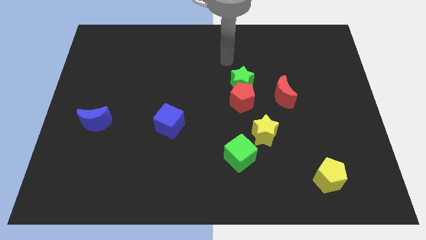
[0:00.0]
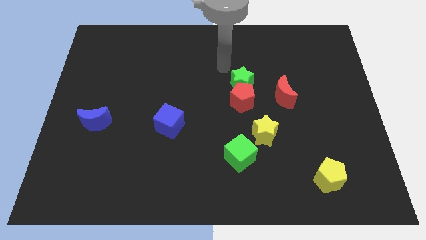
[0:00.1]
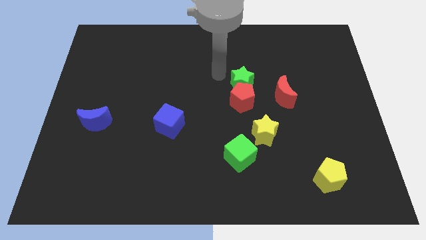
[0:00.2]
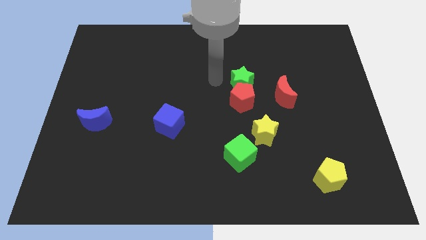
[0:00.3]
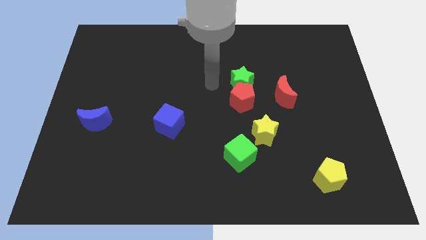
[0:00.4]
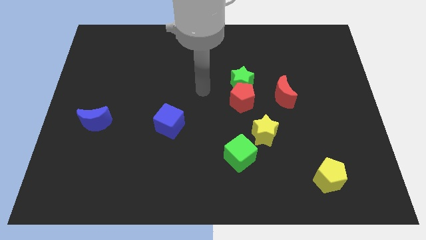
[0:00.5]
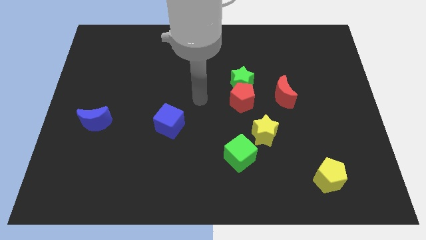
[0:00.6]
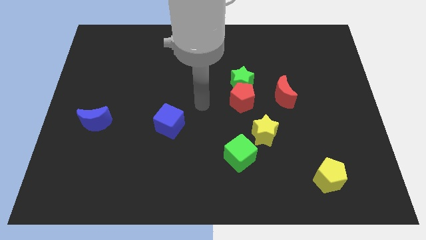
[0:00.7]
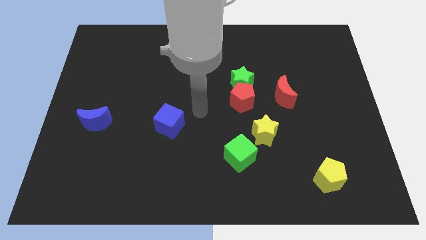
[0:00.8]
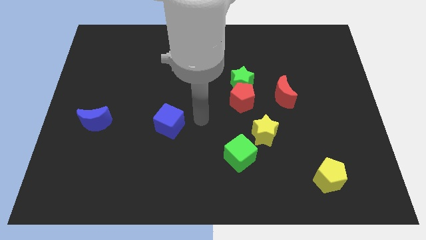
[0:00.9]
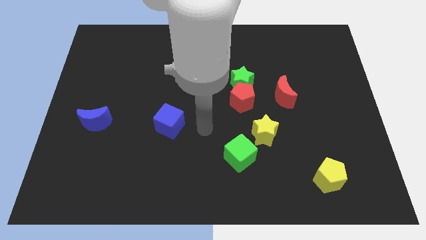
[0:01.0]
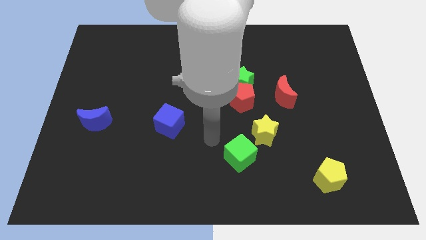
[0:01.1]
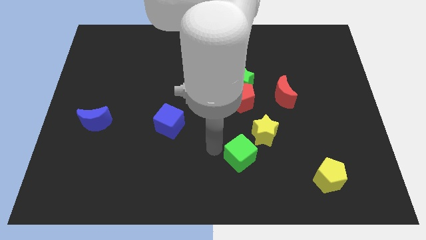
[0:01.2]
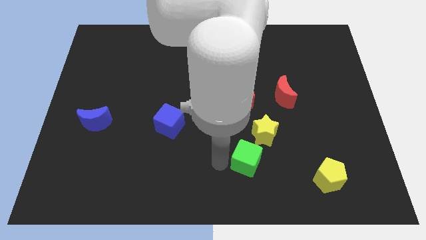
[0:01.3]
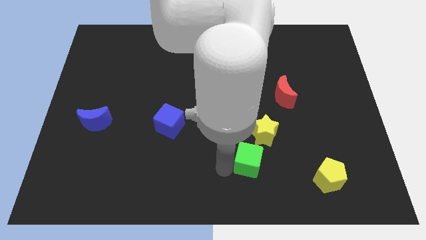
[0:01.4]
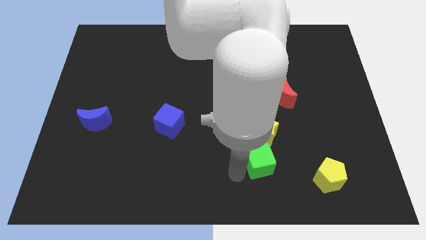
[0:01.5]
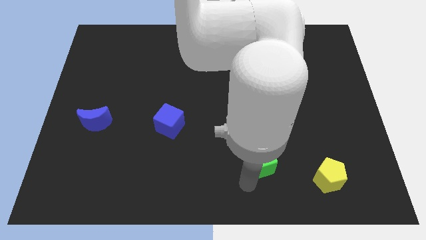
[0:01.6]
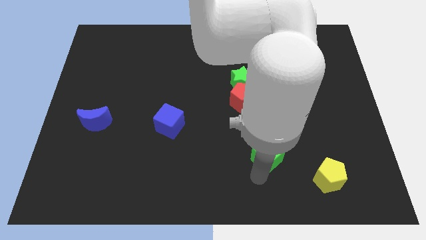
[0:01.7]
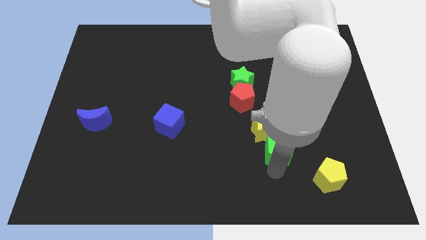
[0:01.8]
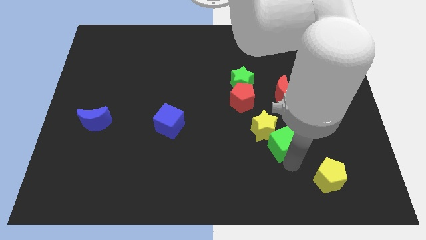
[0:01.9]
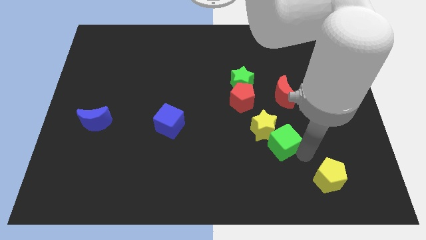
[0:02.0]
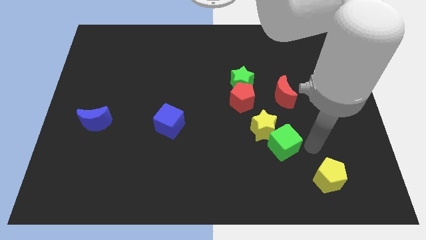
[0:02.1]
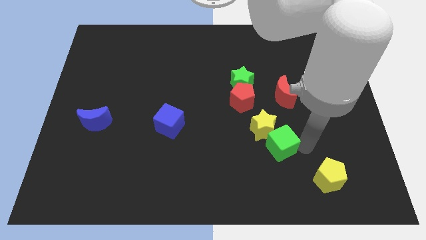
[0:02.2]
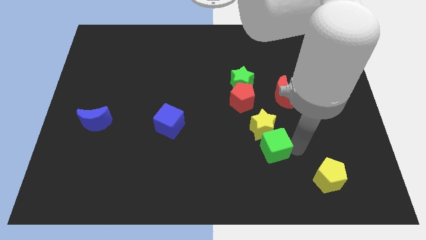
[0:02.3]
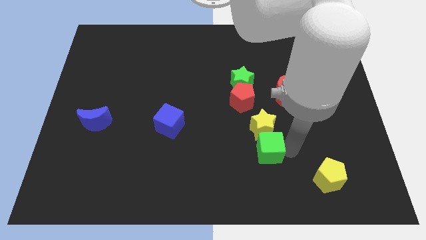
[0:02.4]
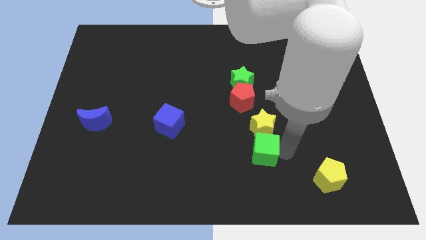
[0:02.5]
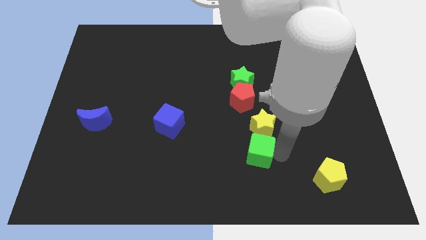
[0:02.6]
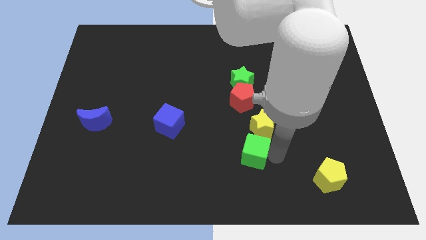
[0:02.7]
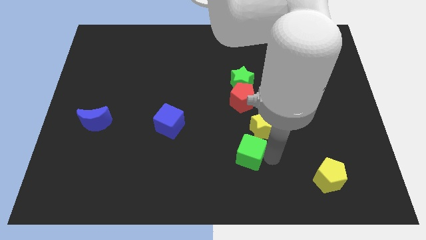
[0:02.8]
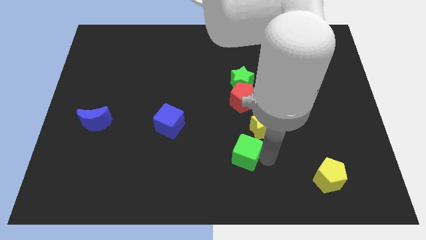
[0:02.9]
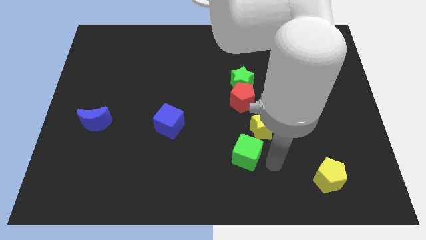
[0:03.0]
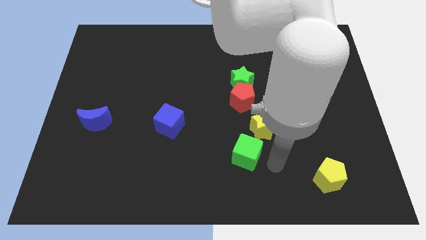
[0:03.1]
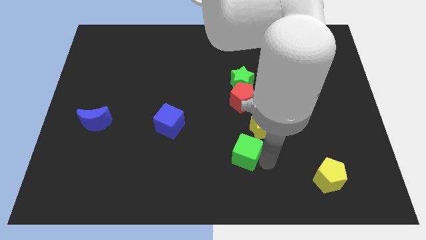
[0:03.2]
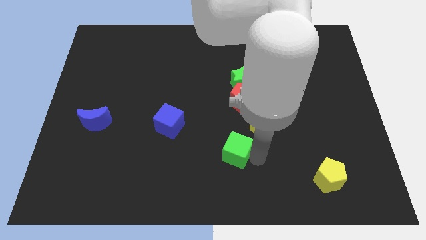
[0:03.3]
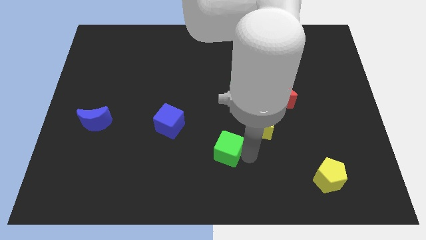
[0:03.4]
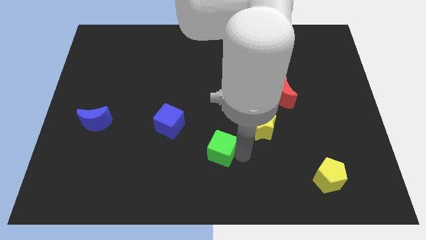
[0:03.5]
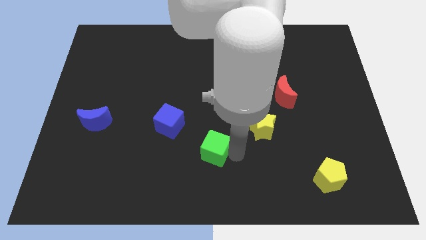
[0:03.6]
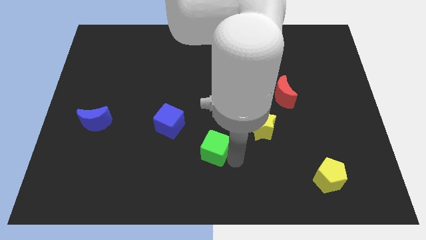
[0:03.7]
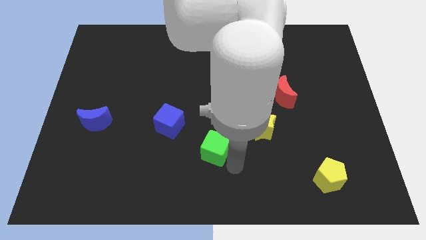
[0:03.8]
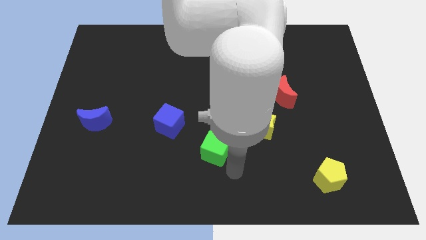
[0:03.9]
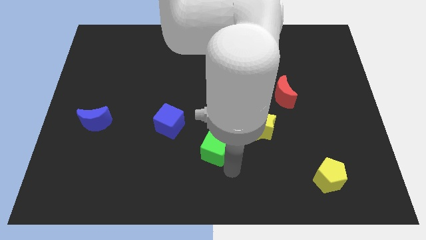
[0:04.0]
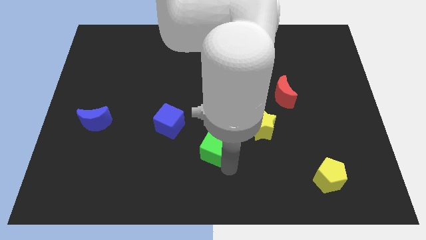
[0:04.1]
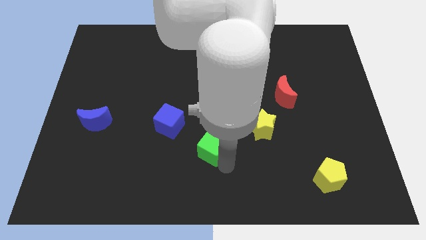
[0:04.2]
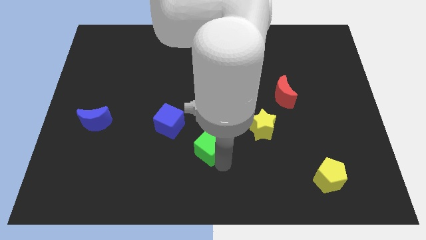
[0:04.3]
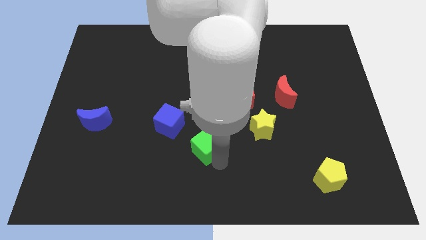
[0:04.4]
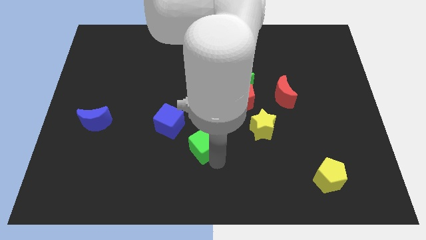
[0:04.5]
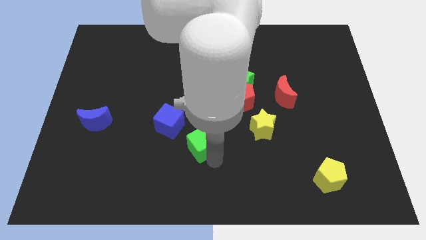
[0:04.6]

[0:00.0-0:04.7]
slide the green cube somewhat upwards and to the left

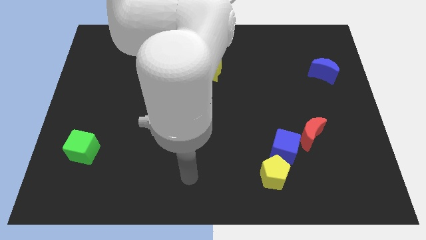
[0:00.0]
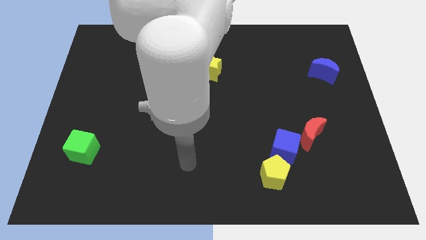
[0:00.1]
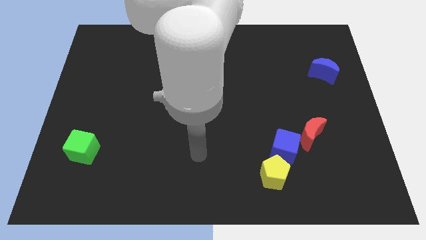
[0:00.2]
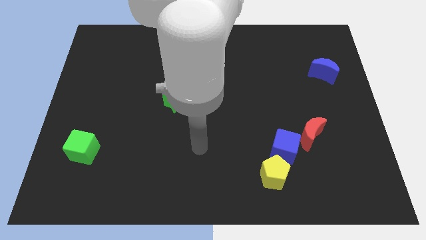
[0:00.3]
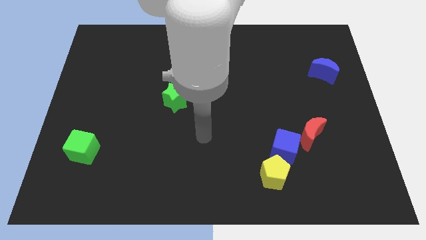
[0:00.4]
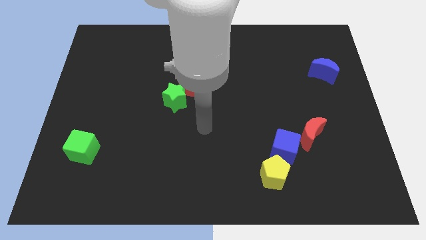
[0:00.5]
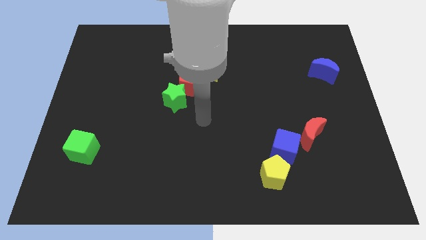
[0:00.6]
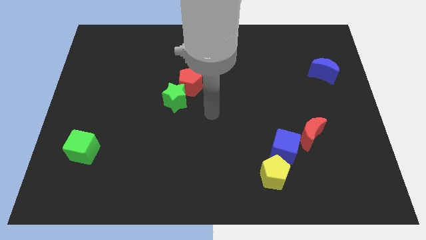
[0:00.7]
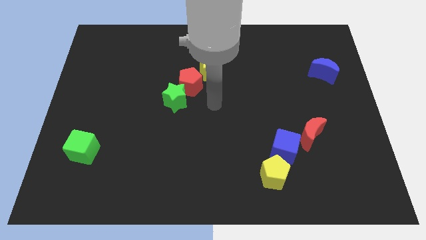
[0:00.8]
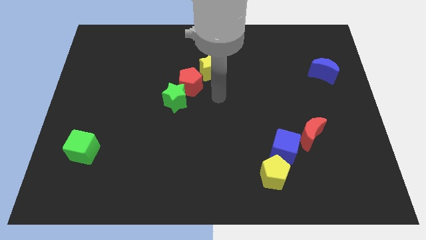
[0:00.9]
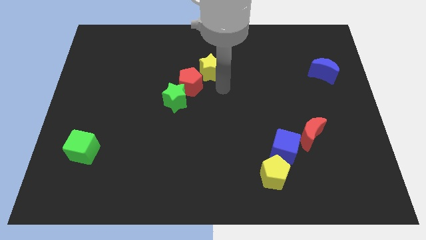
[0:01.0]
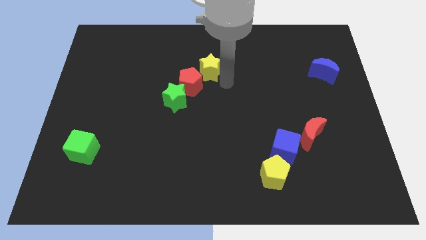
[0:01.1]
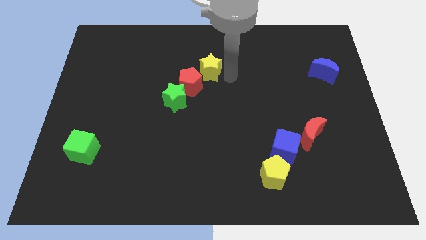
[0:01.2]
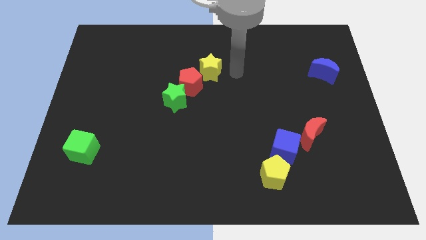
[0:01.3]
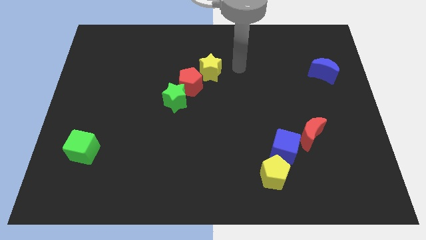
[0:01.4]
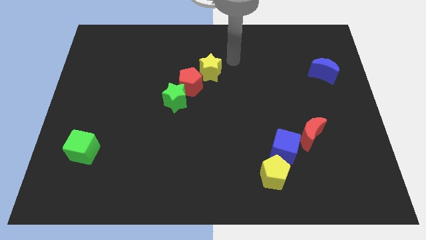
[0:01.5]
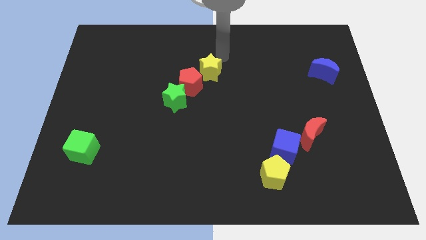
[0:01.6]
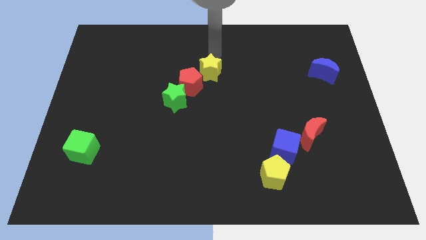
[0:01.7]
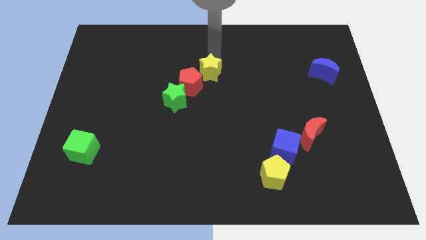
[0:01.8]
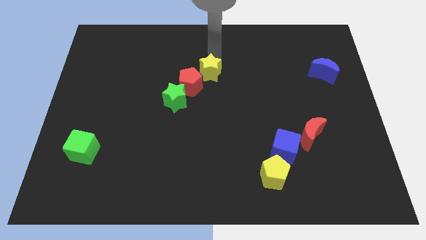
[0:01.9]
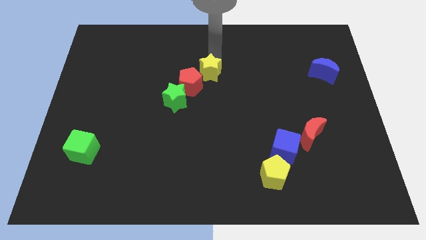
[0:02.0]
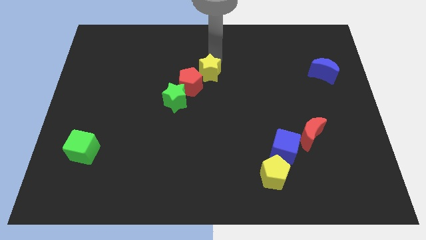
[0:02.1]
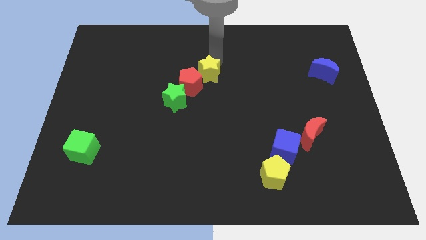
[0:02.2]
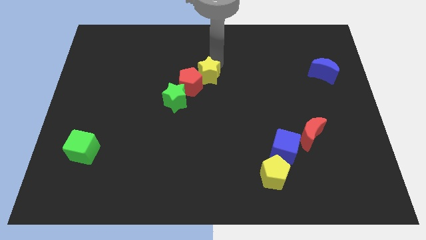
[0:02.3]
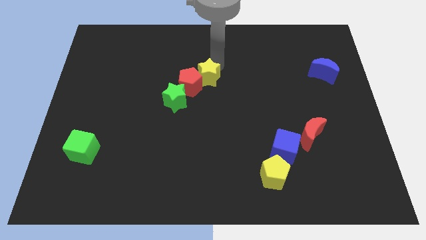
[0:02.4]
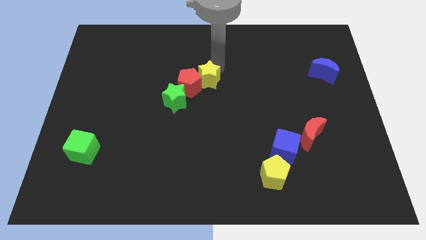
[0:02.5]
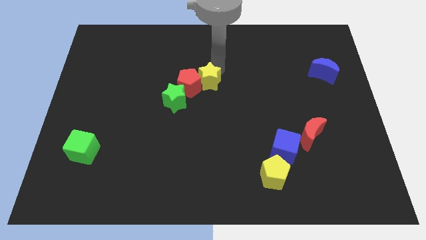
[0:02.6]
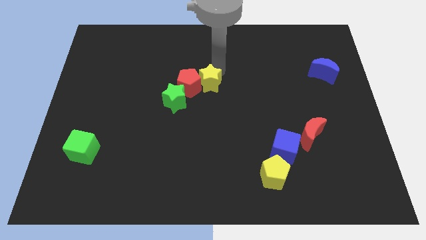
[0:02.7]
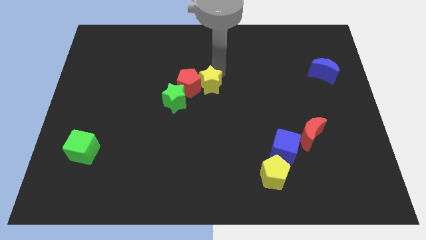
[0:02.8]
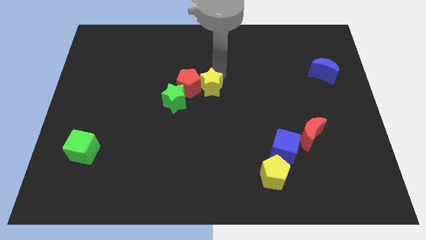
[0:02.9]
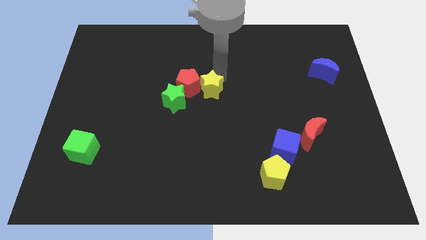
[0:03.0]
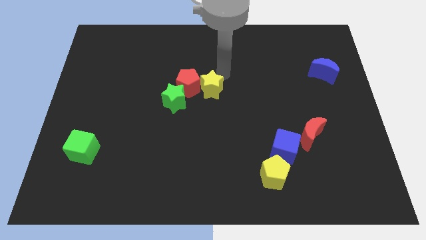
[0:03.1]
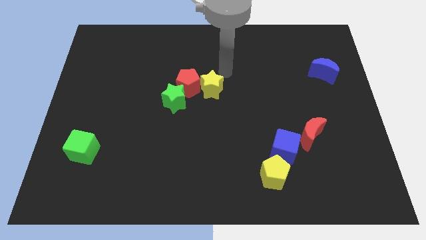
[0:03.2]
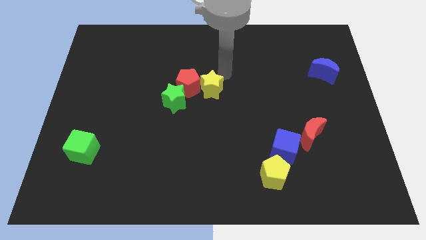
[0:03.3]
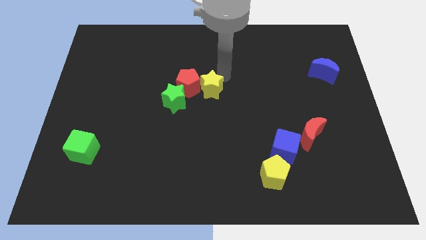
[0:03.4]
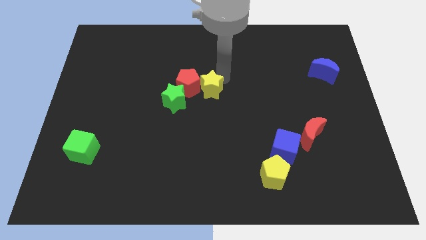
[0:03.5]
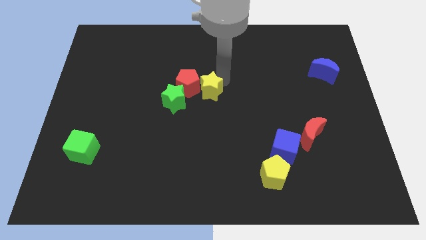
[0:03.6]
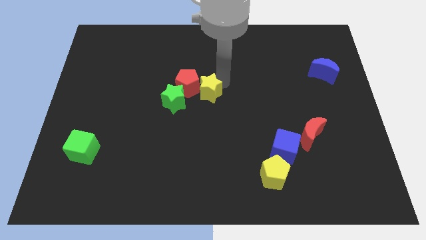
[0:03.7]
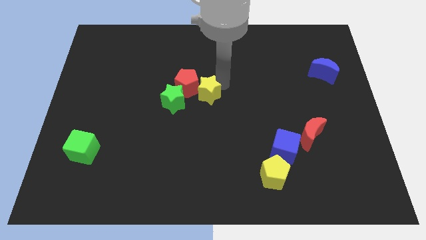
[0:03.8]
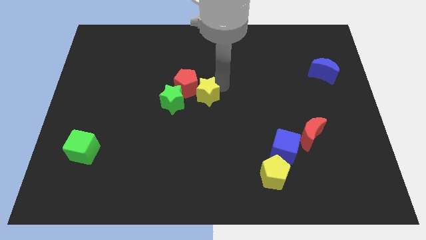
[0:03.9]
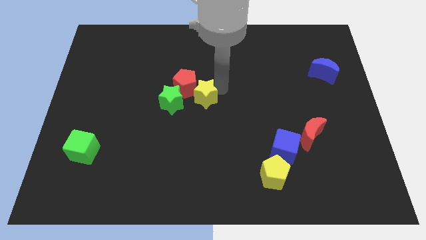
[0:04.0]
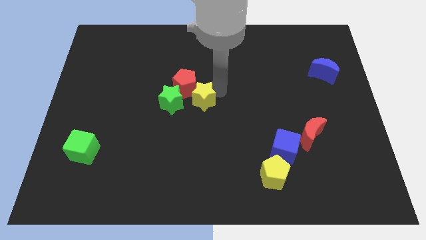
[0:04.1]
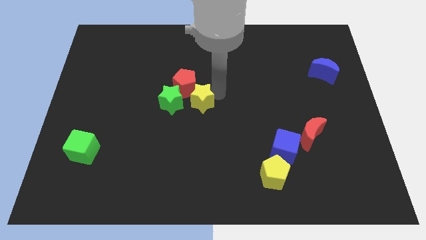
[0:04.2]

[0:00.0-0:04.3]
slightly push the yellow star downwards and to the left diagonally
